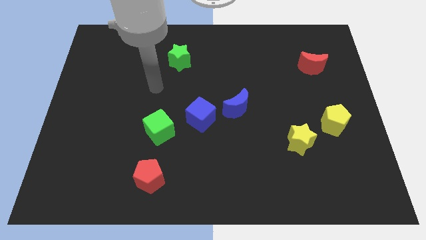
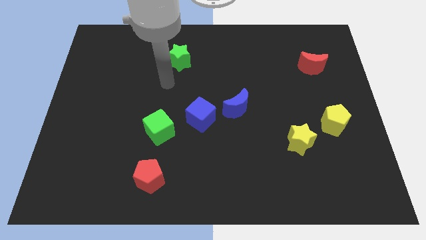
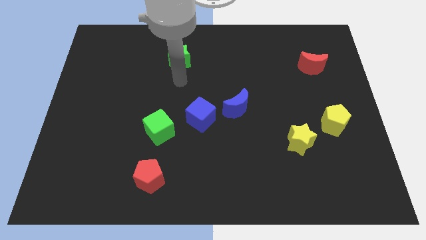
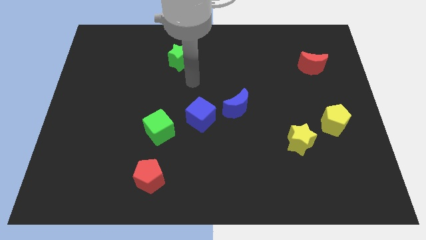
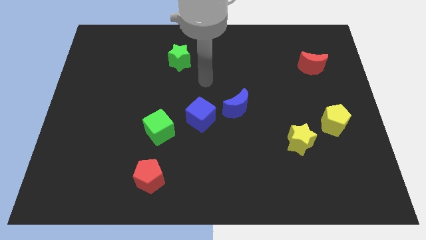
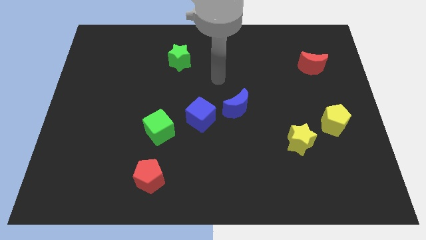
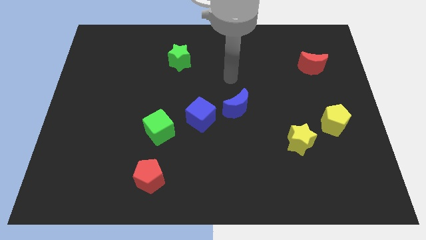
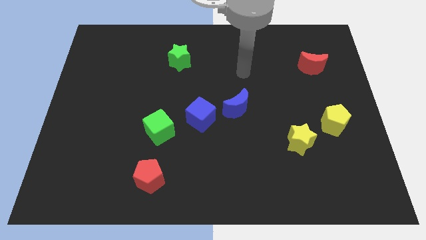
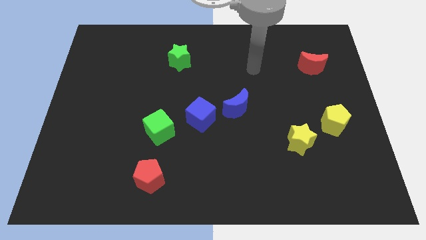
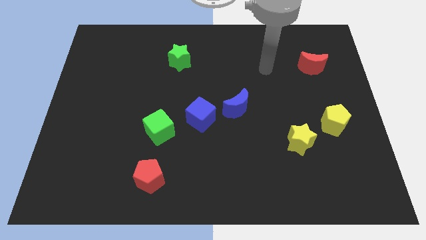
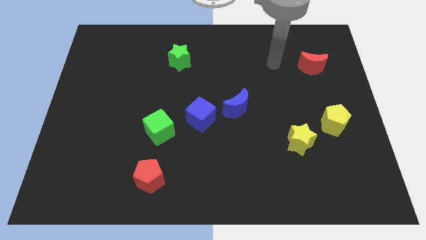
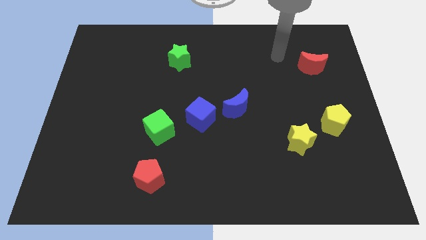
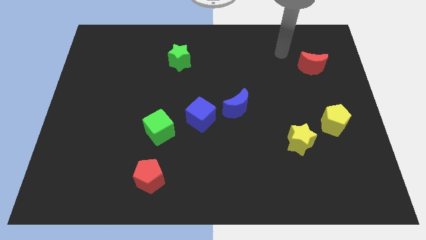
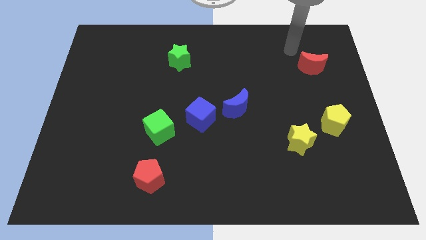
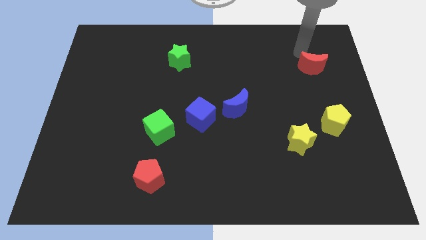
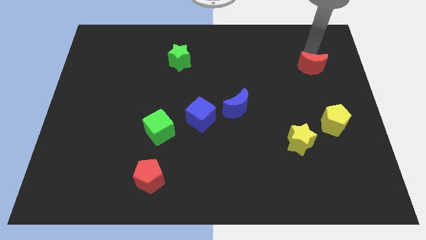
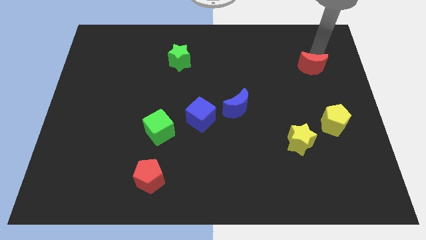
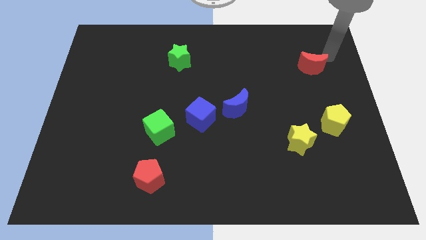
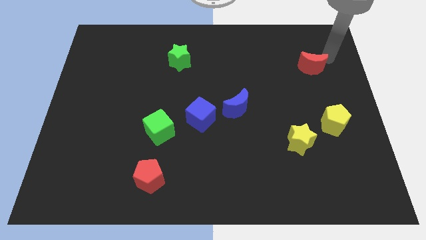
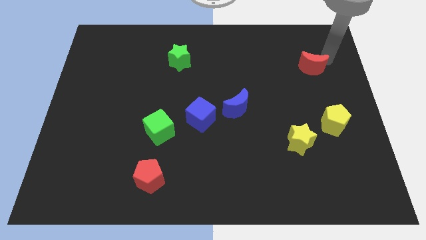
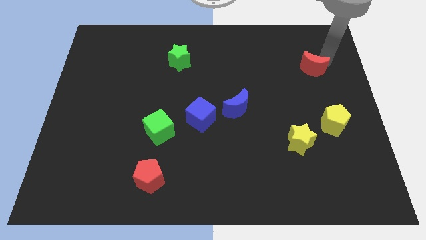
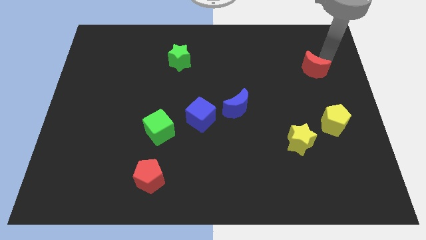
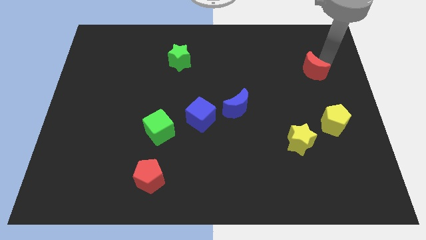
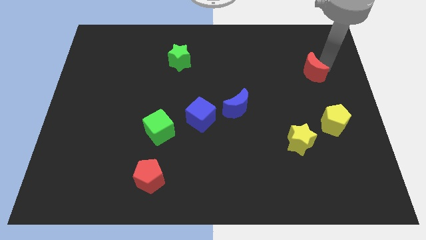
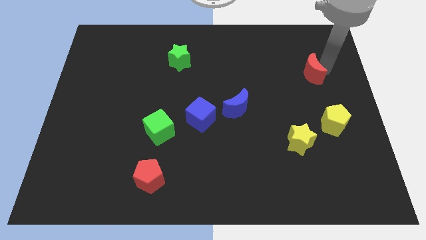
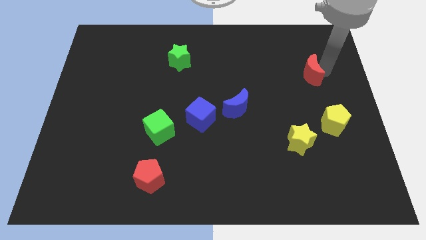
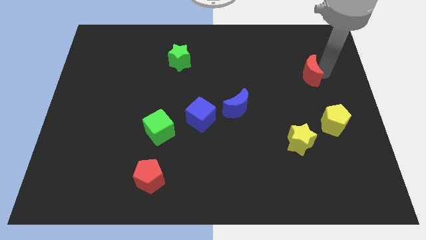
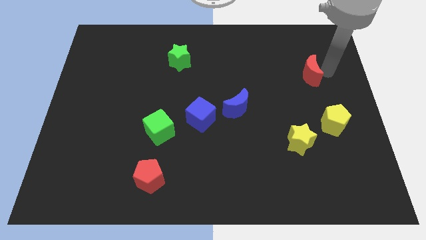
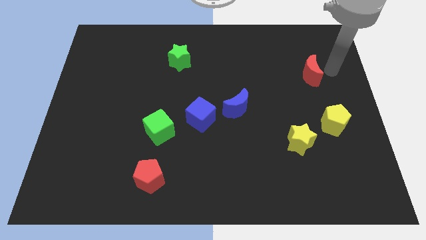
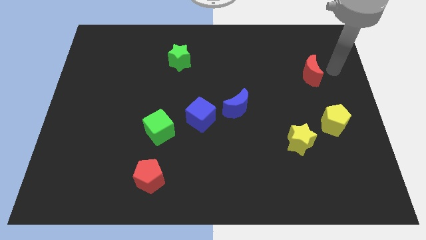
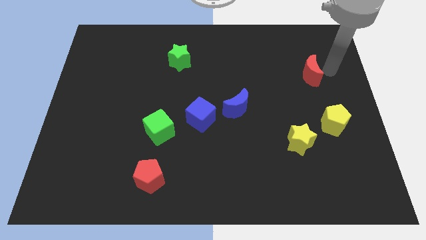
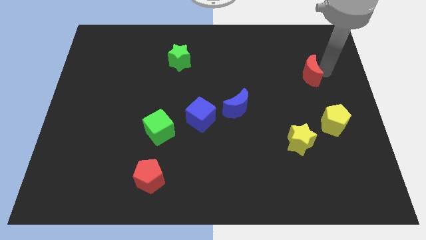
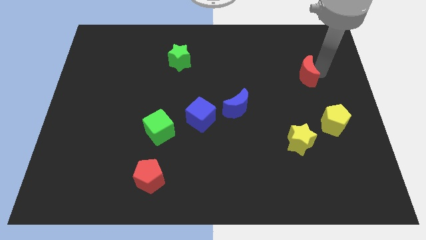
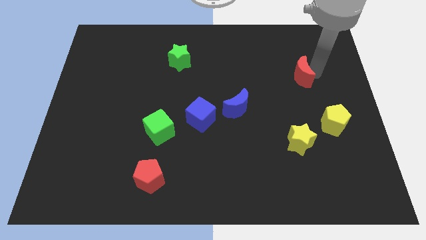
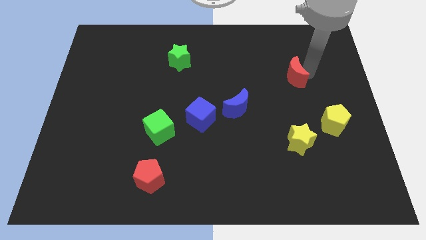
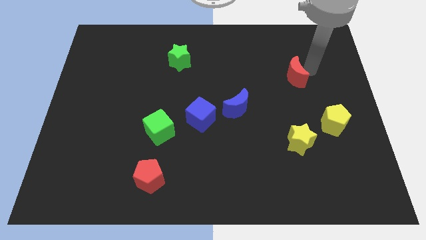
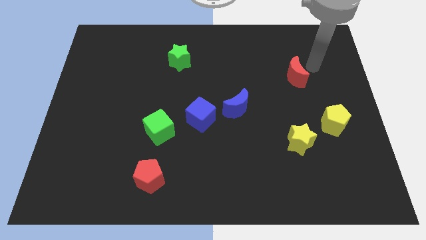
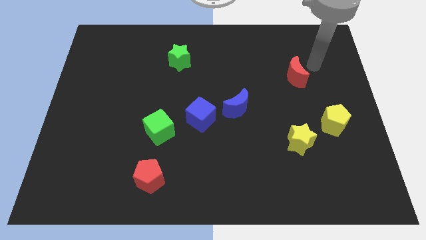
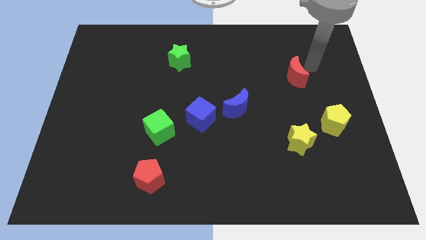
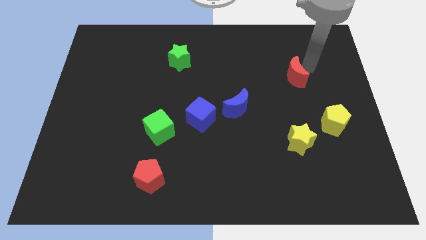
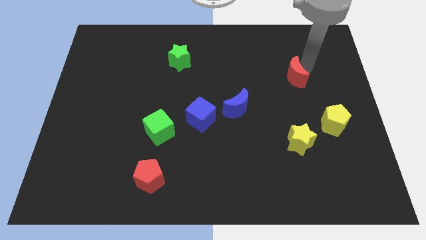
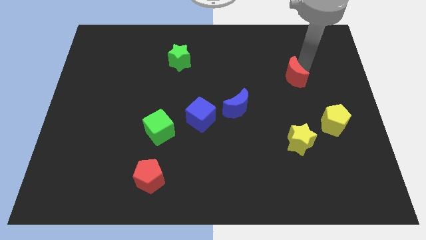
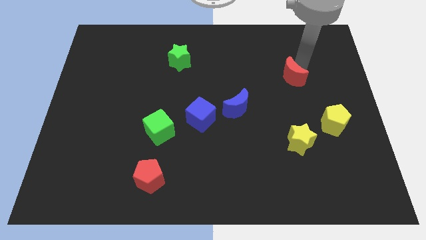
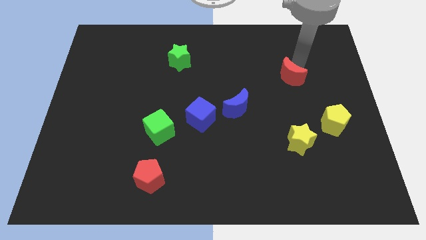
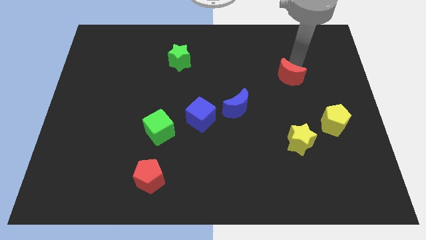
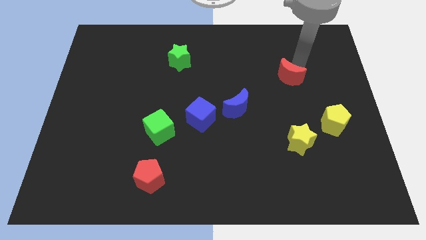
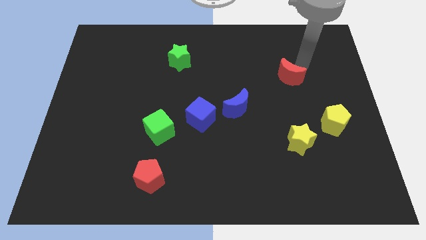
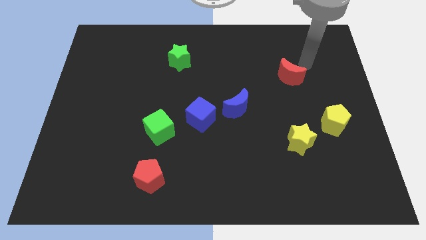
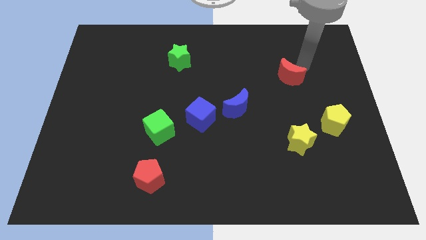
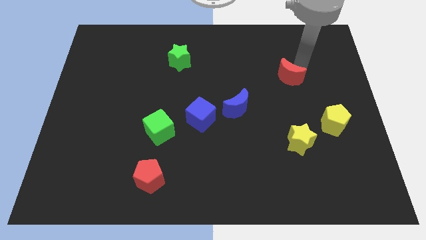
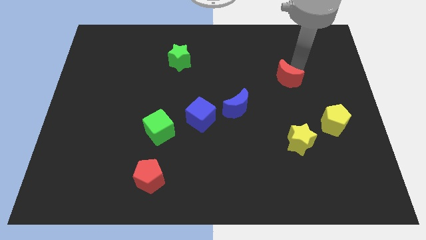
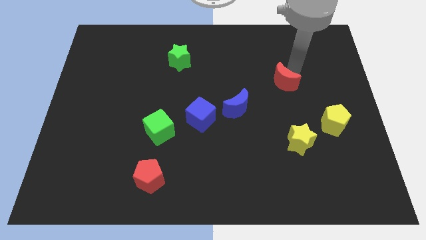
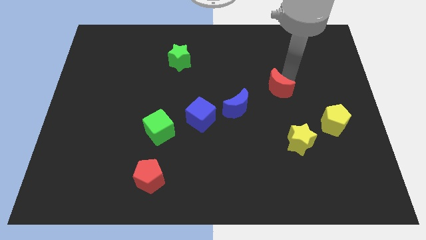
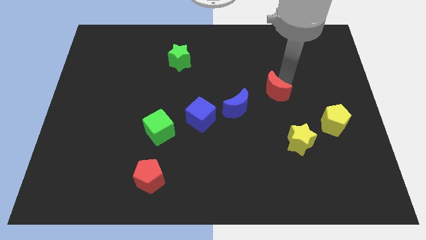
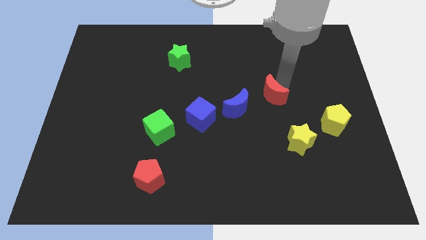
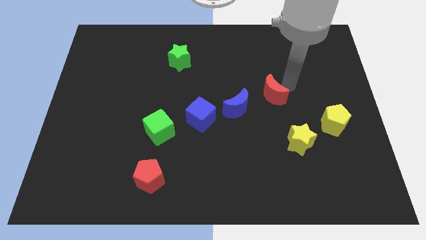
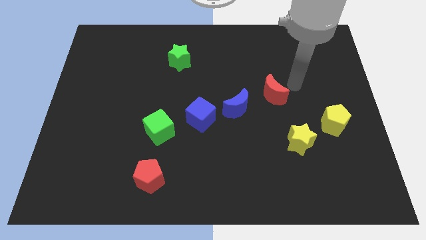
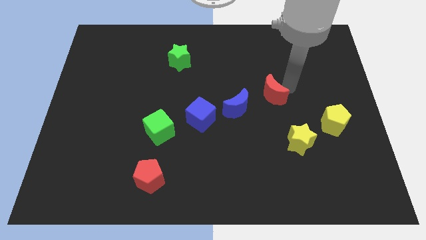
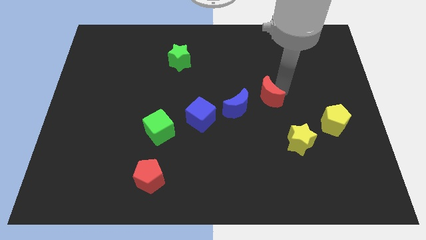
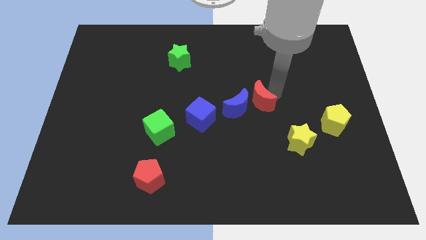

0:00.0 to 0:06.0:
move the red moon towards the blue moon
